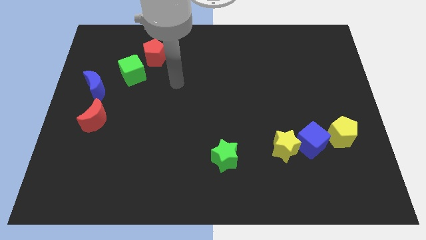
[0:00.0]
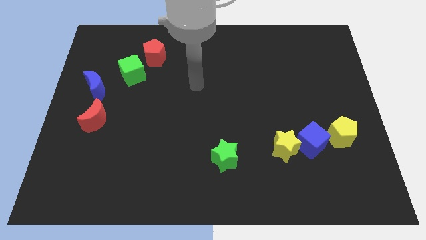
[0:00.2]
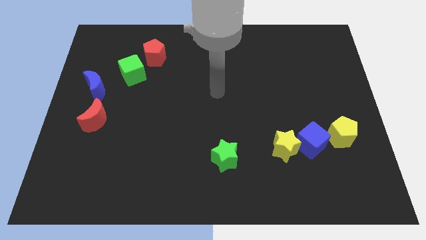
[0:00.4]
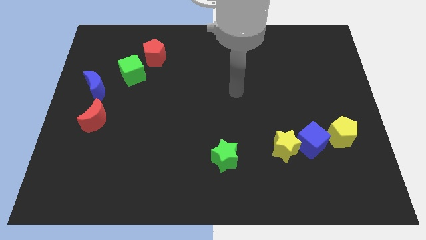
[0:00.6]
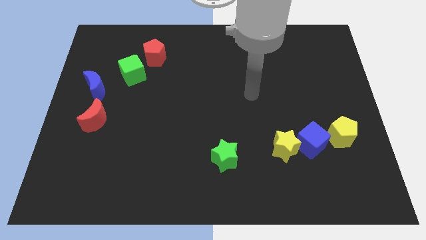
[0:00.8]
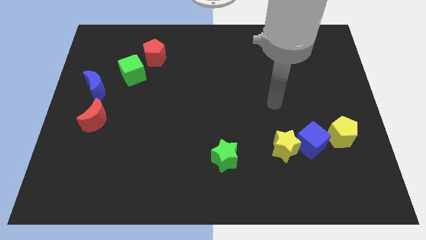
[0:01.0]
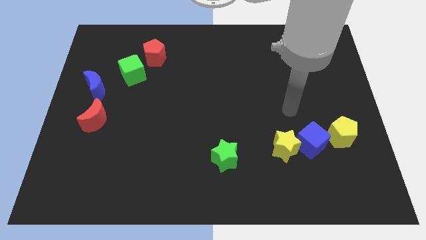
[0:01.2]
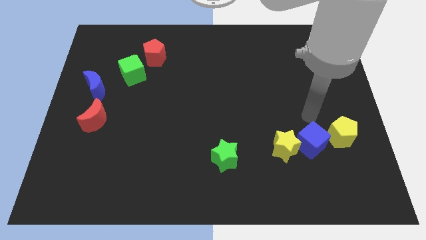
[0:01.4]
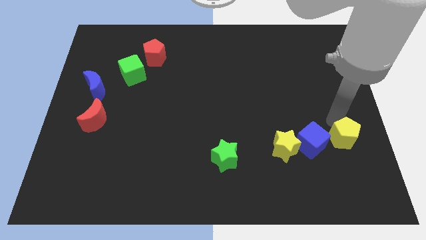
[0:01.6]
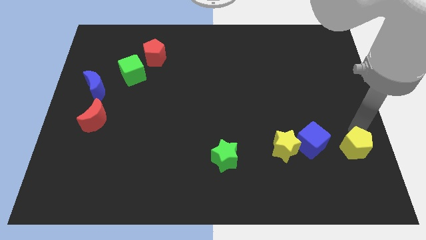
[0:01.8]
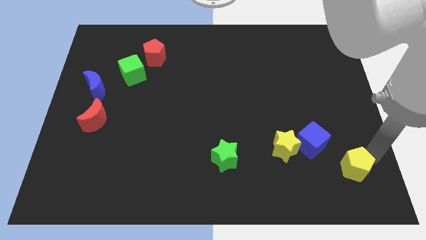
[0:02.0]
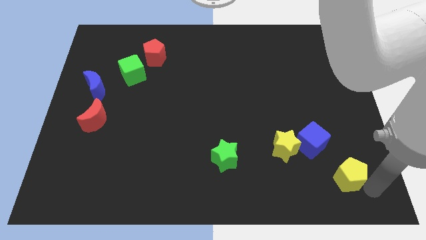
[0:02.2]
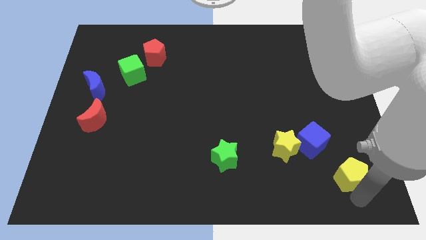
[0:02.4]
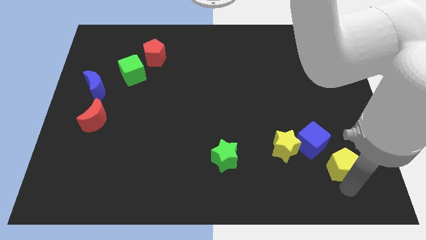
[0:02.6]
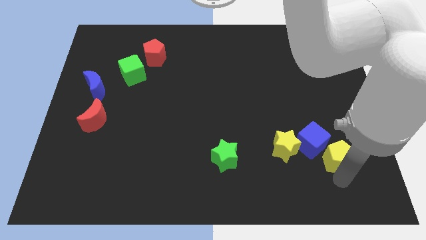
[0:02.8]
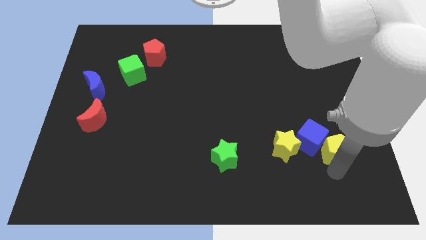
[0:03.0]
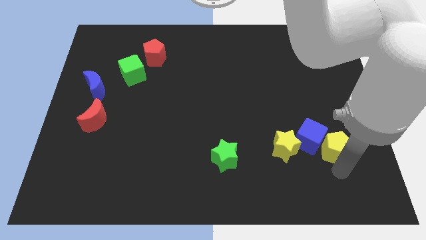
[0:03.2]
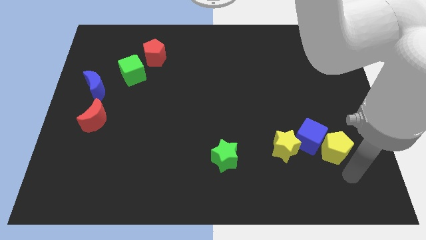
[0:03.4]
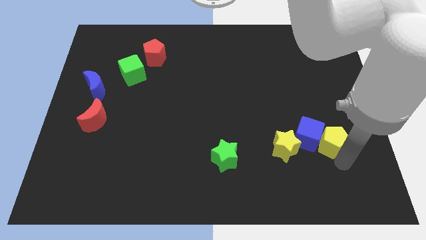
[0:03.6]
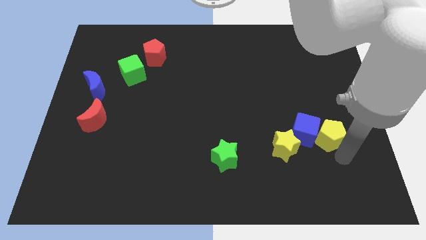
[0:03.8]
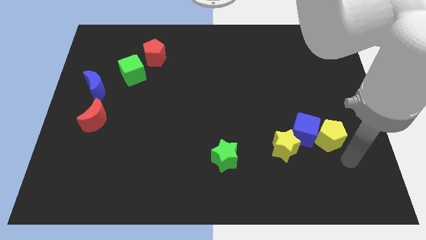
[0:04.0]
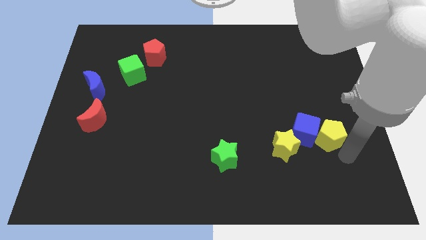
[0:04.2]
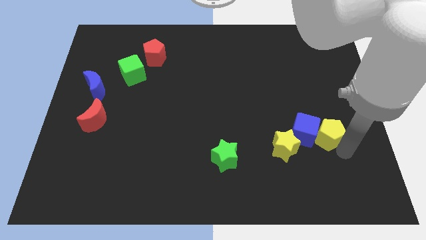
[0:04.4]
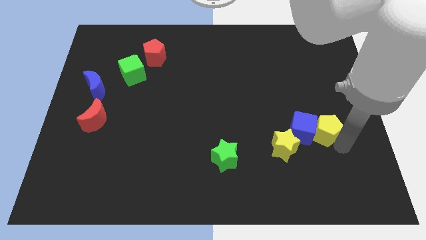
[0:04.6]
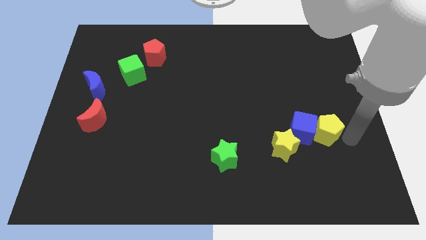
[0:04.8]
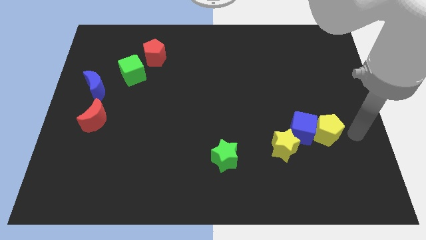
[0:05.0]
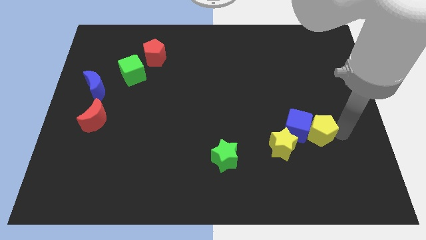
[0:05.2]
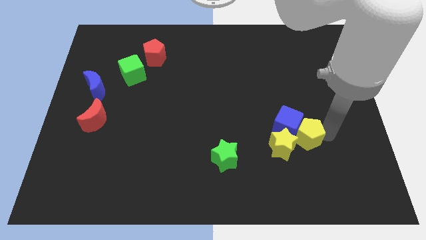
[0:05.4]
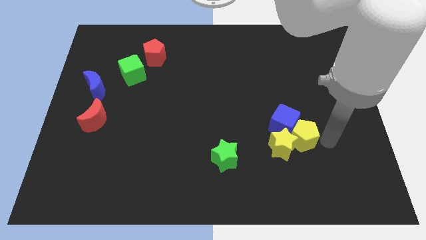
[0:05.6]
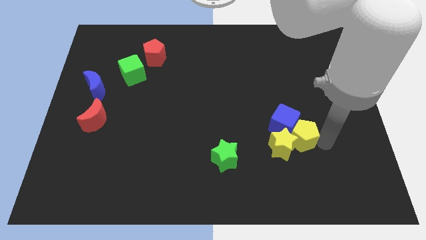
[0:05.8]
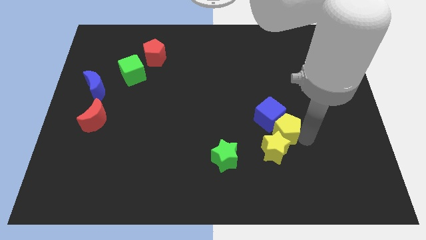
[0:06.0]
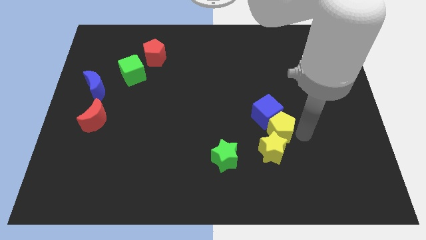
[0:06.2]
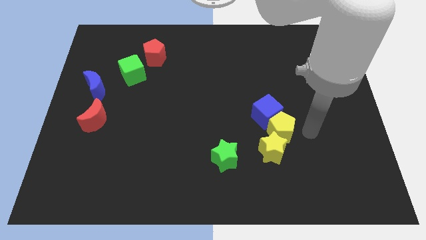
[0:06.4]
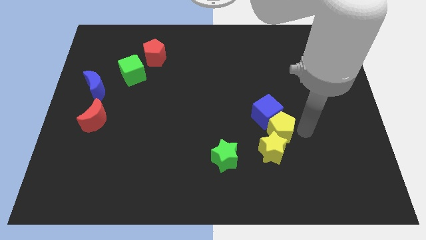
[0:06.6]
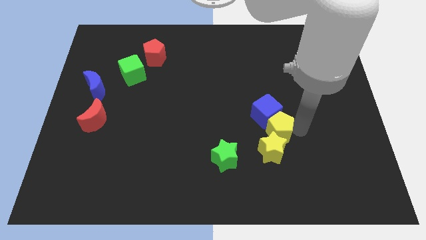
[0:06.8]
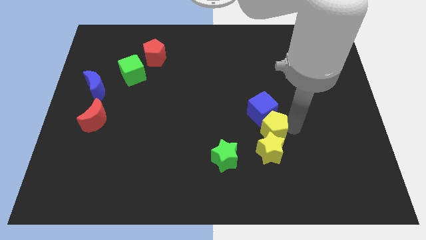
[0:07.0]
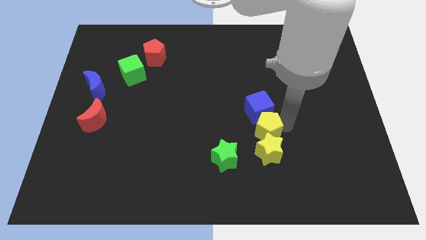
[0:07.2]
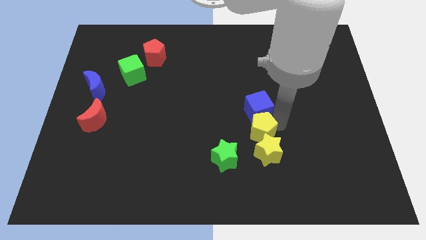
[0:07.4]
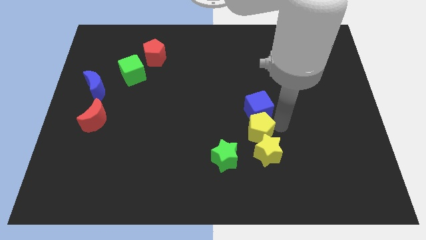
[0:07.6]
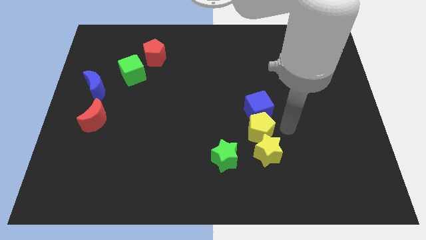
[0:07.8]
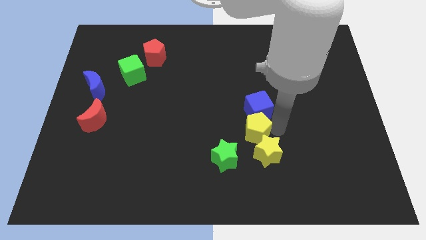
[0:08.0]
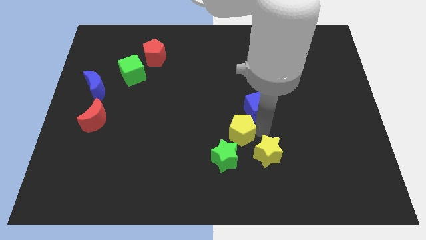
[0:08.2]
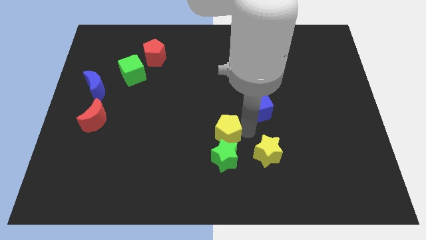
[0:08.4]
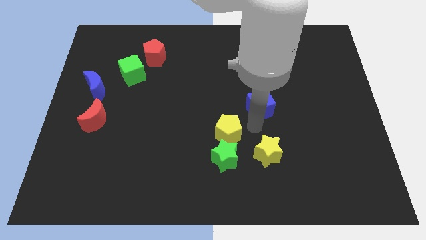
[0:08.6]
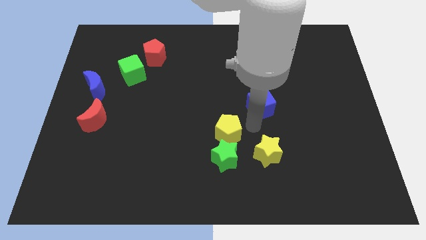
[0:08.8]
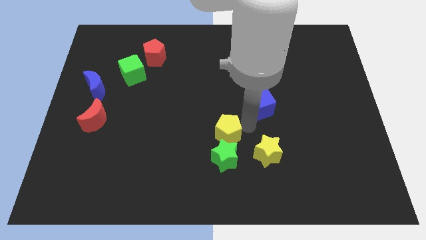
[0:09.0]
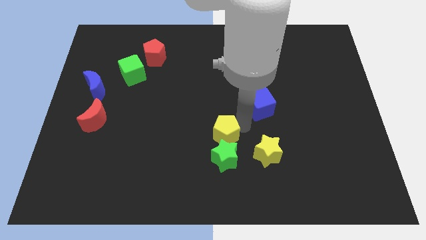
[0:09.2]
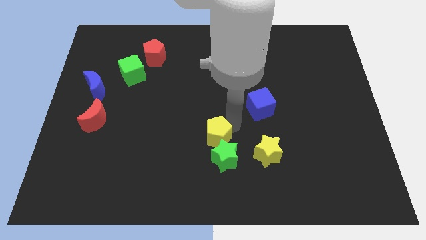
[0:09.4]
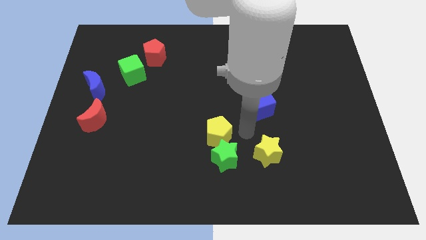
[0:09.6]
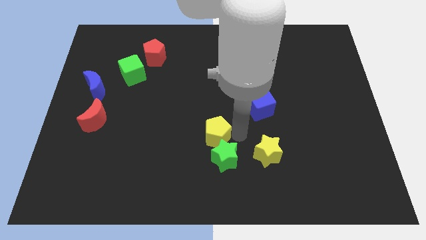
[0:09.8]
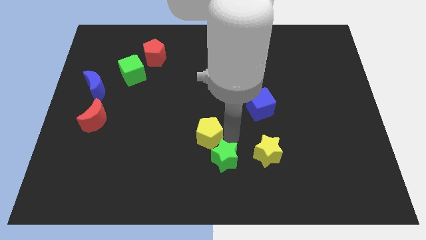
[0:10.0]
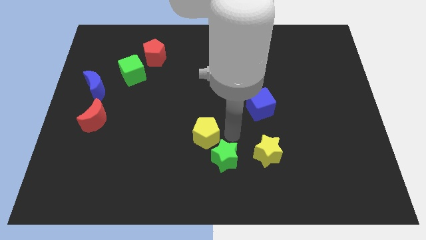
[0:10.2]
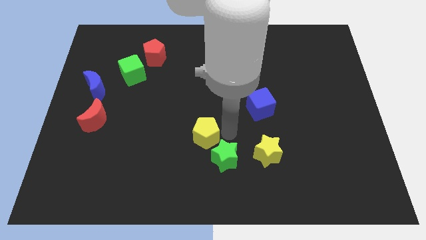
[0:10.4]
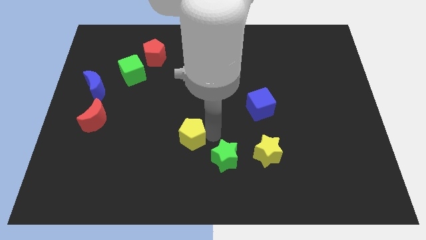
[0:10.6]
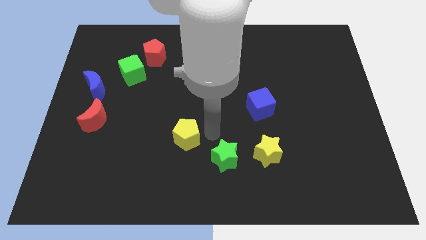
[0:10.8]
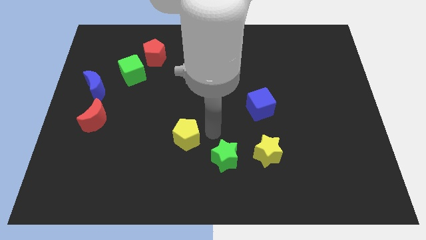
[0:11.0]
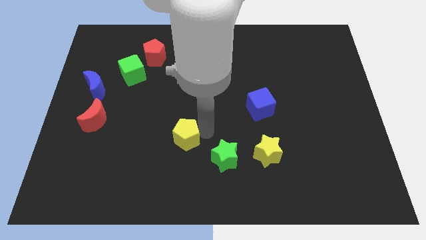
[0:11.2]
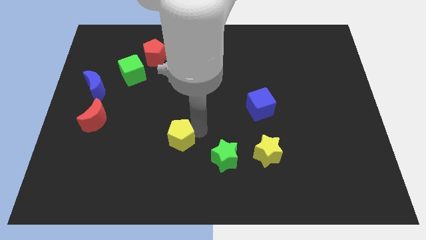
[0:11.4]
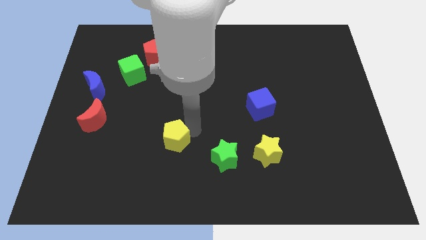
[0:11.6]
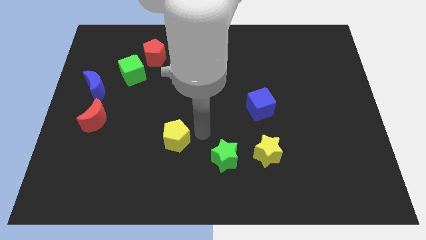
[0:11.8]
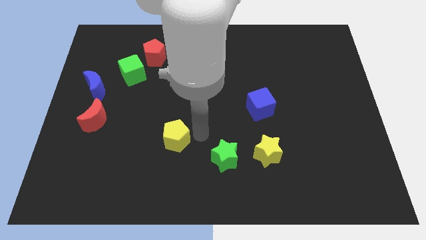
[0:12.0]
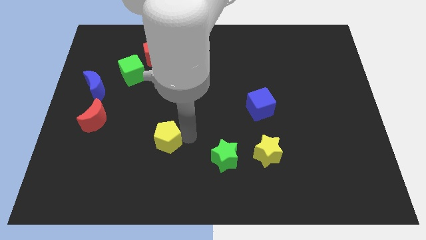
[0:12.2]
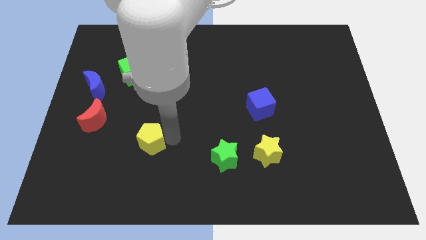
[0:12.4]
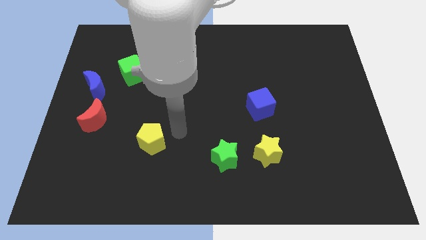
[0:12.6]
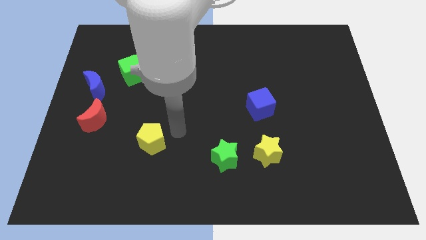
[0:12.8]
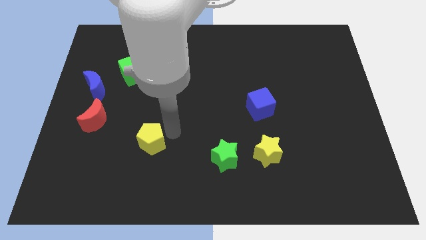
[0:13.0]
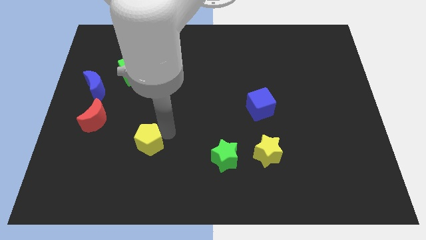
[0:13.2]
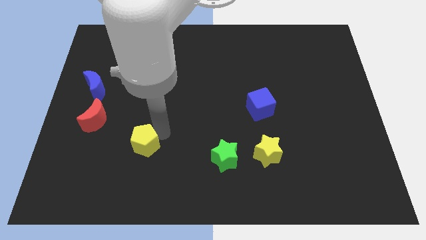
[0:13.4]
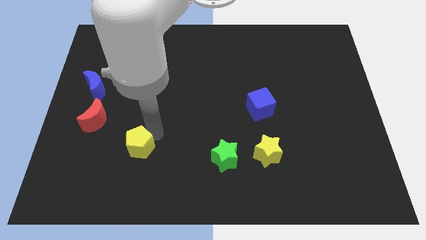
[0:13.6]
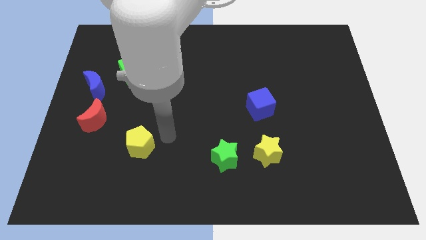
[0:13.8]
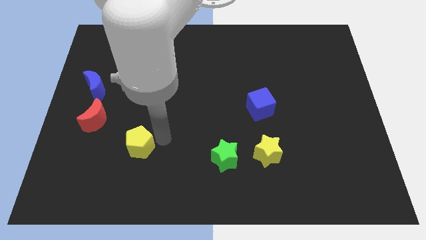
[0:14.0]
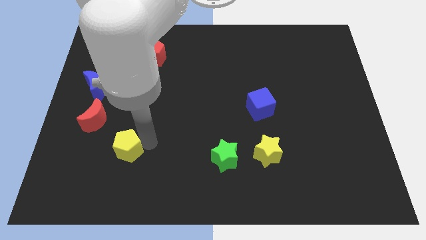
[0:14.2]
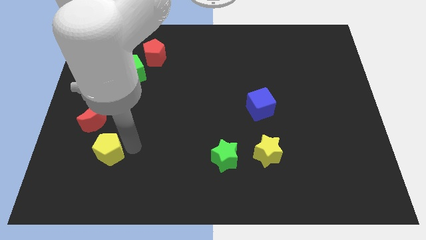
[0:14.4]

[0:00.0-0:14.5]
move the yellow pentagon below the red moon
